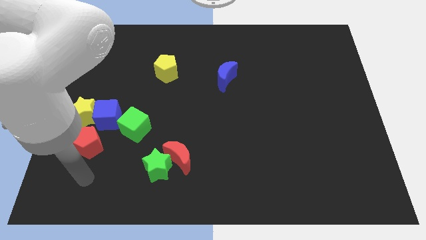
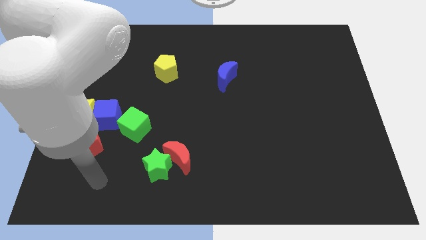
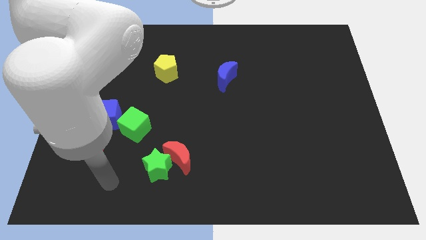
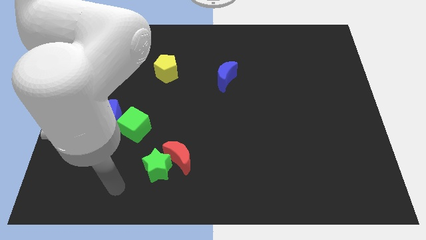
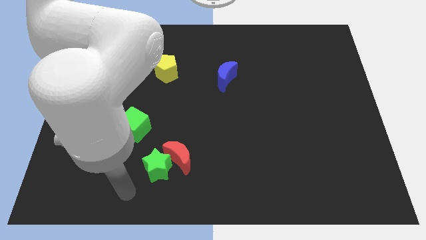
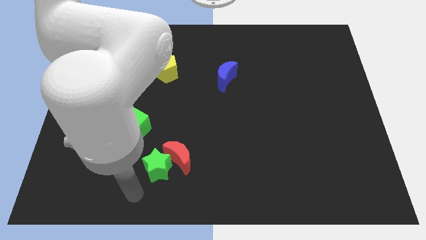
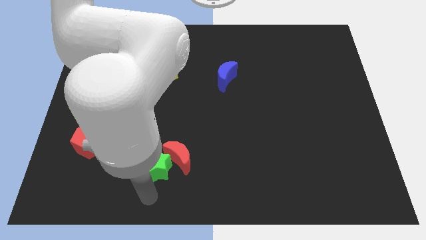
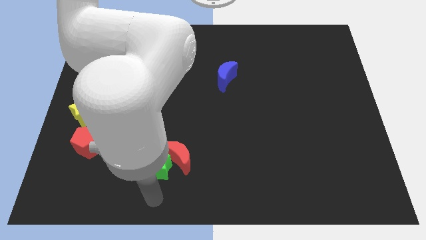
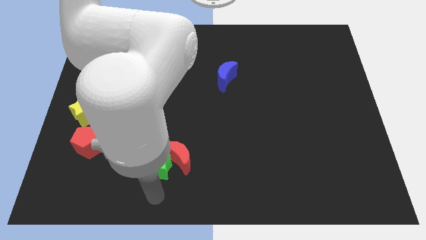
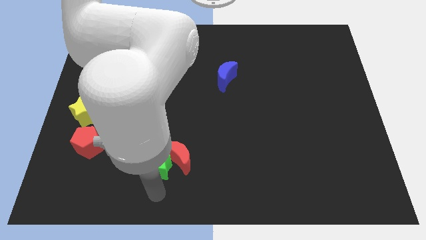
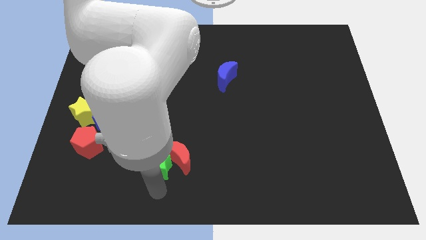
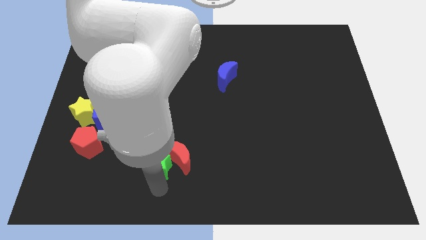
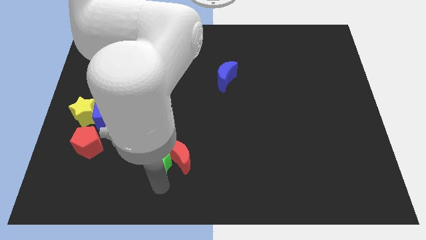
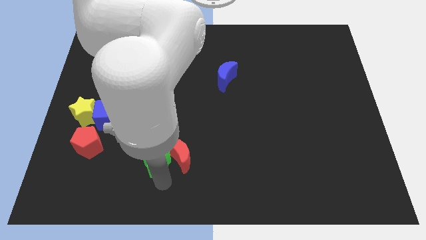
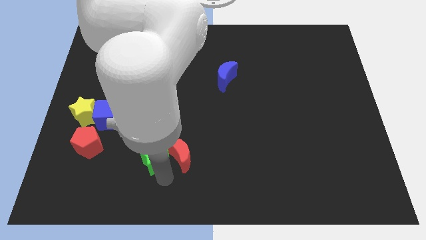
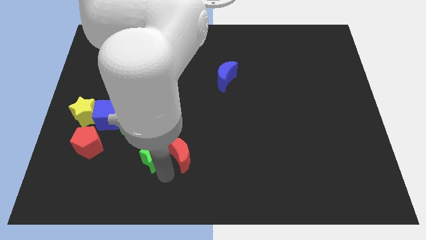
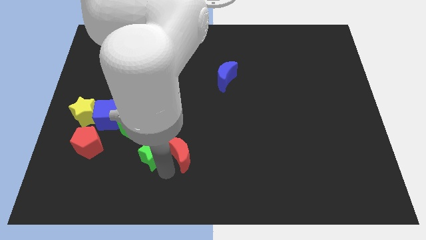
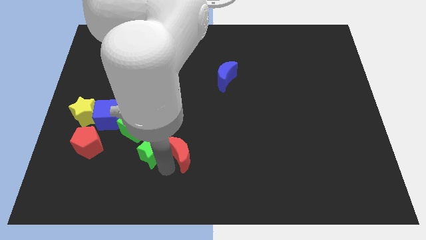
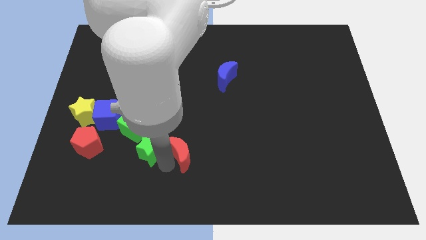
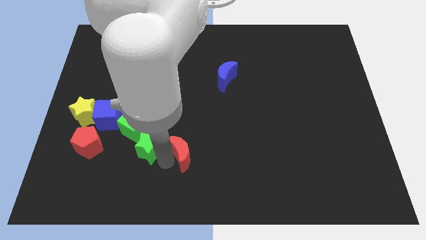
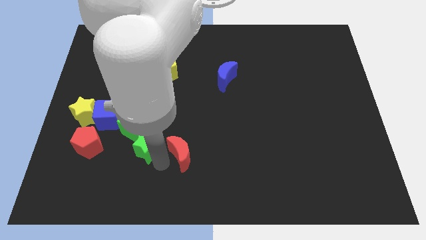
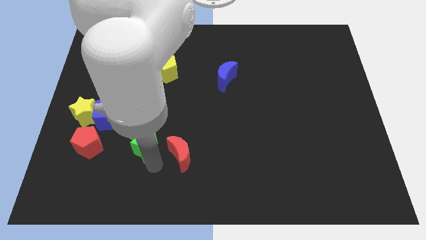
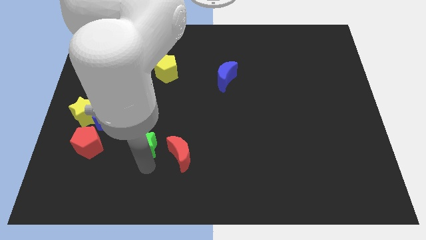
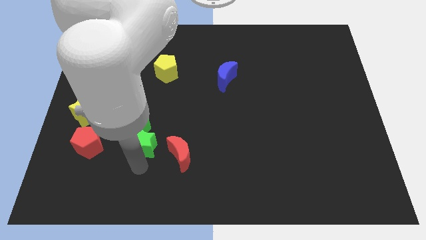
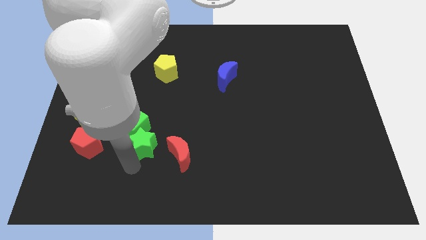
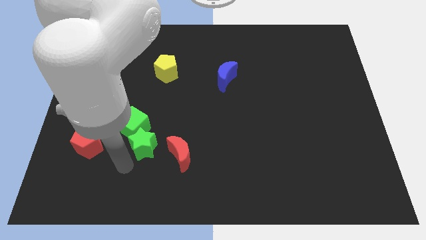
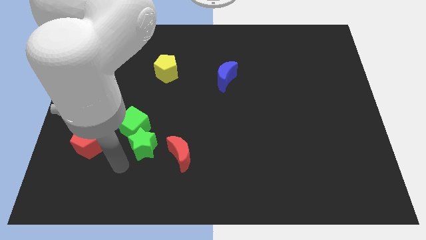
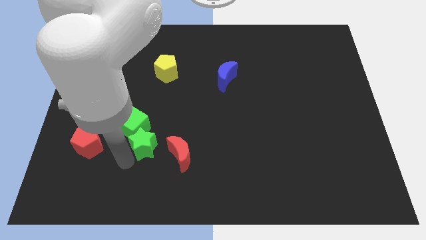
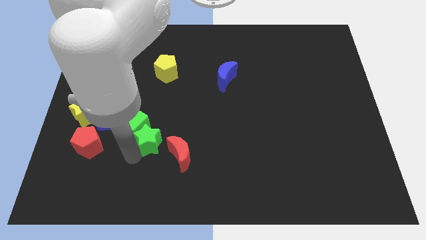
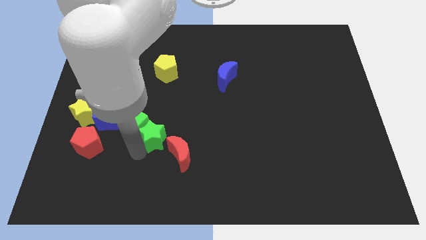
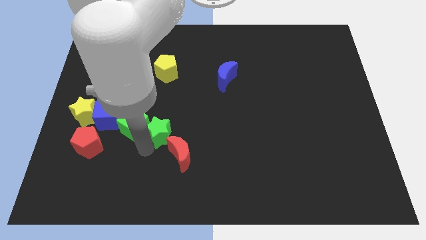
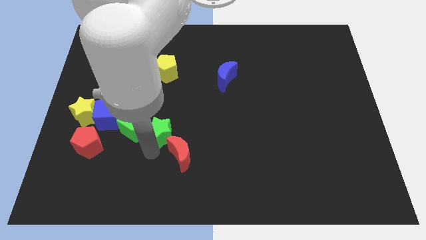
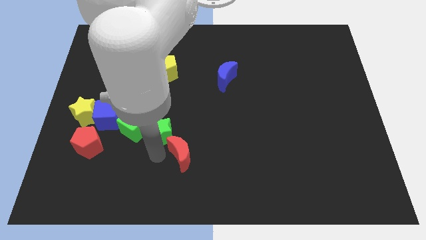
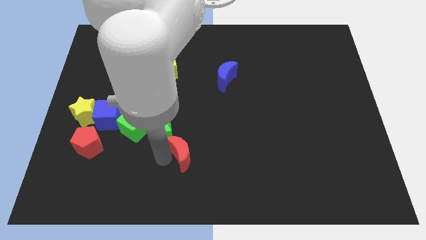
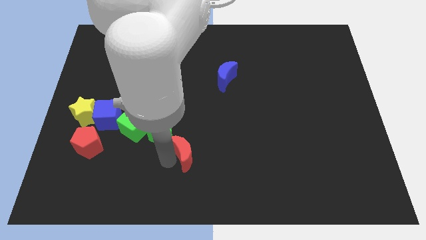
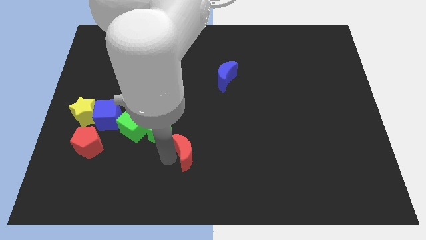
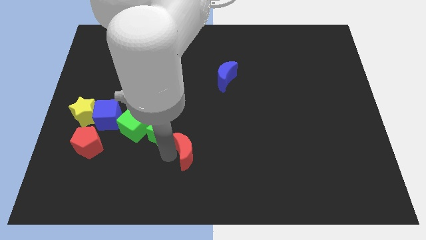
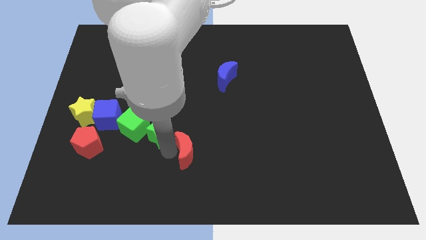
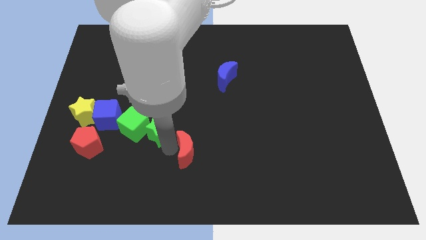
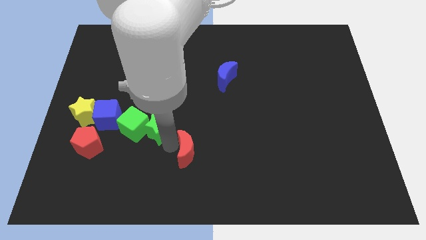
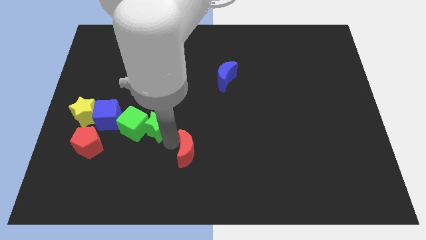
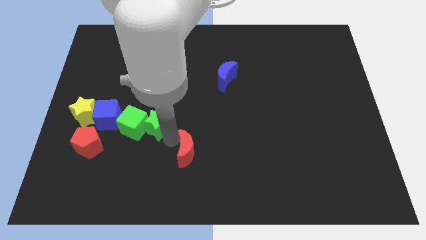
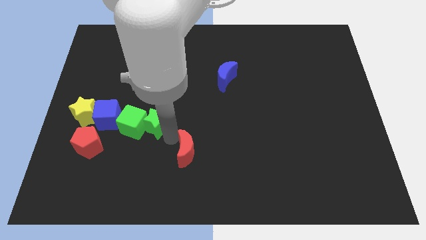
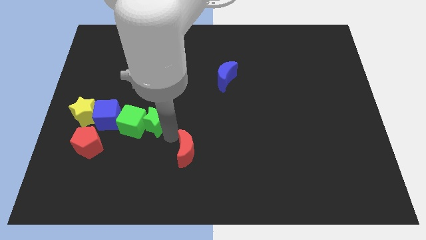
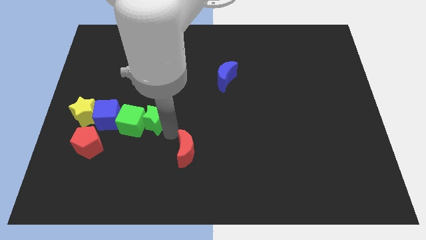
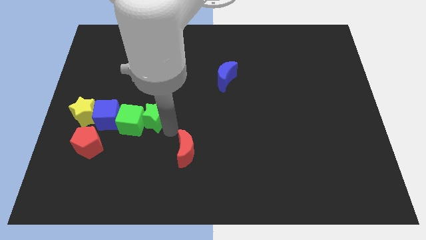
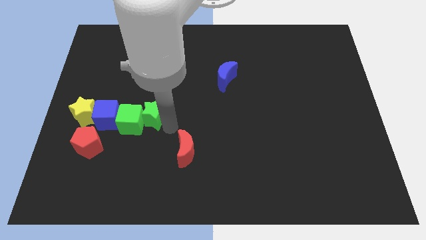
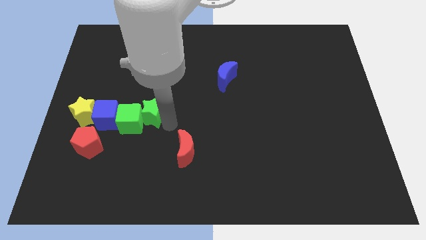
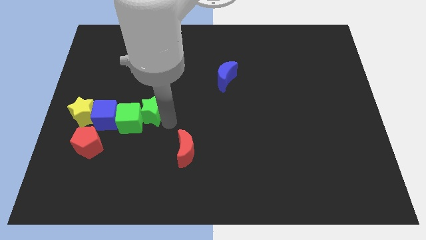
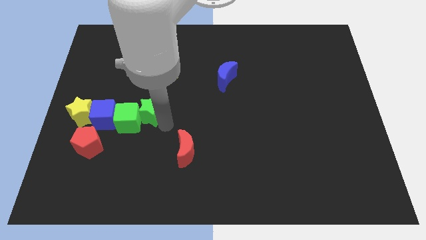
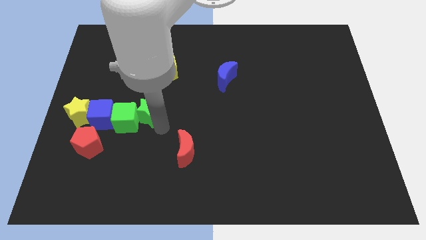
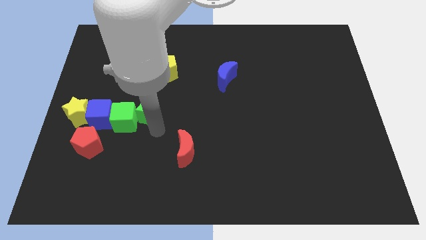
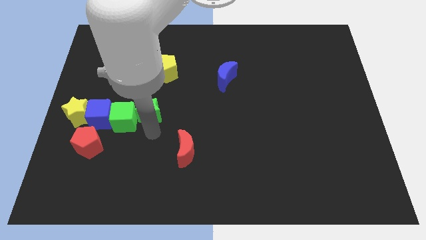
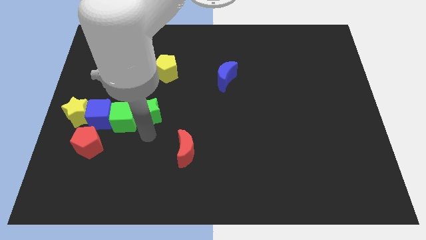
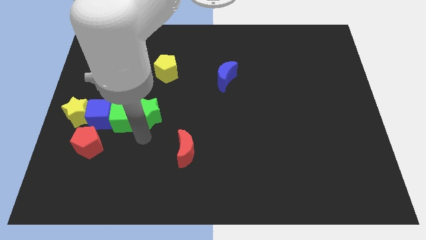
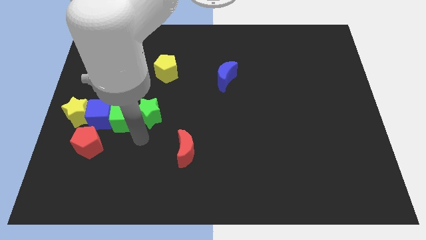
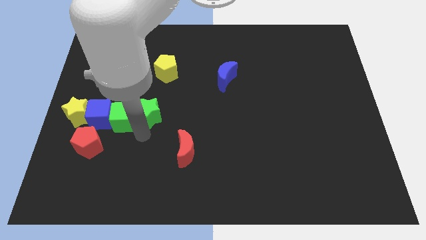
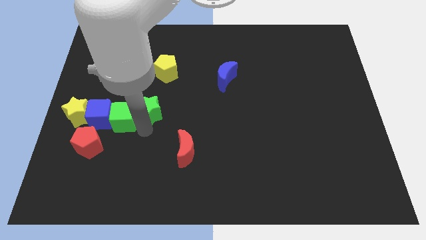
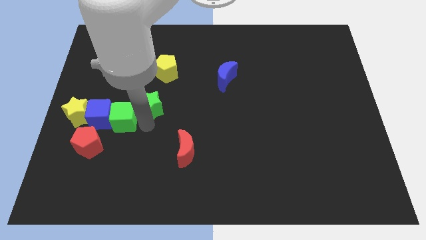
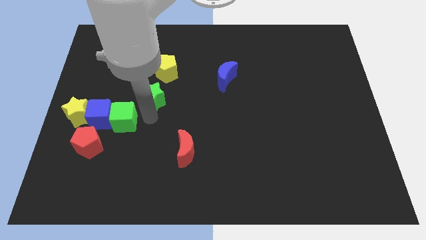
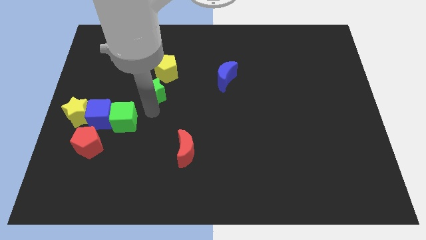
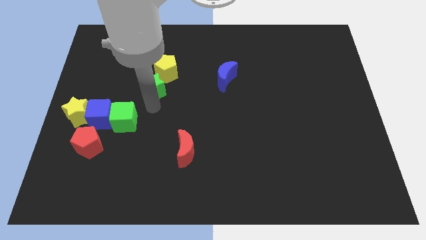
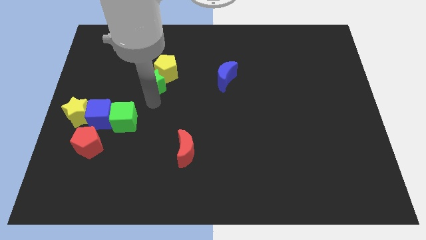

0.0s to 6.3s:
put the green star next to the yellow pentagon

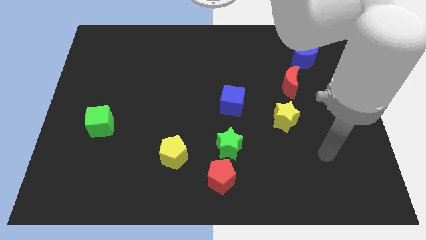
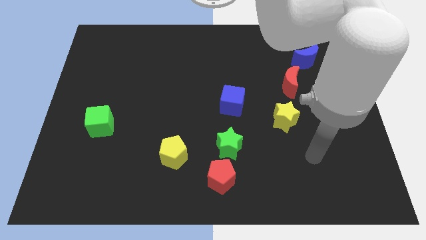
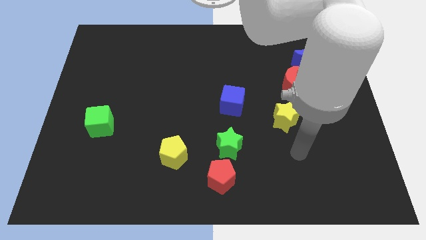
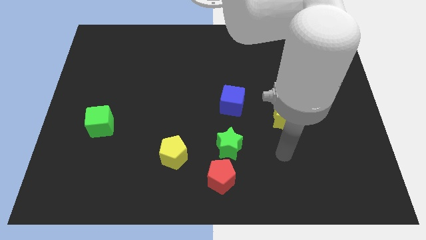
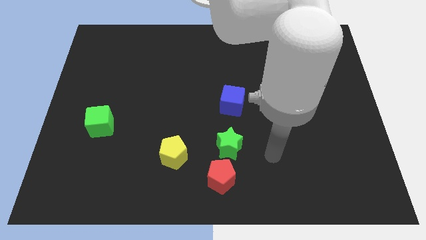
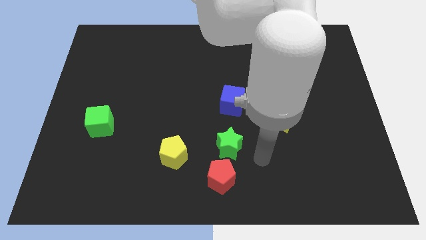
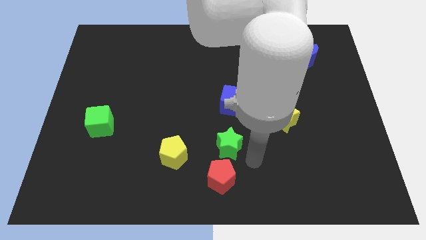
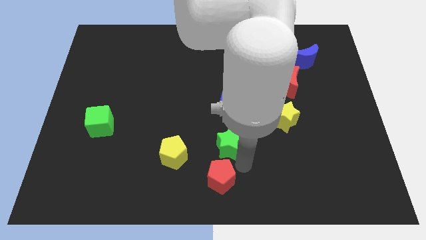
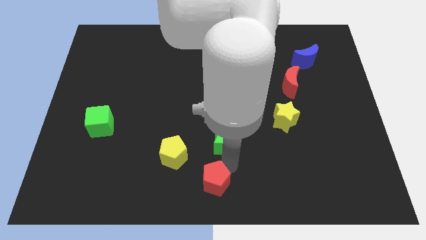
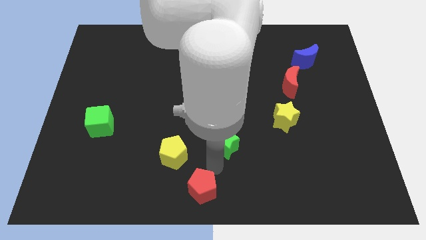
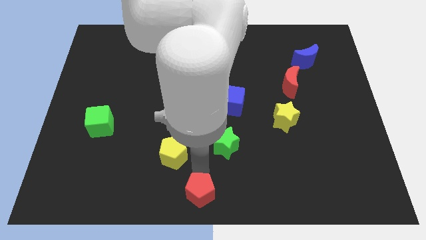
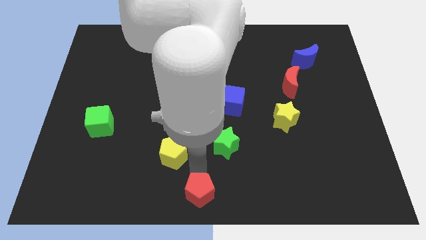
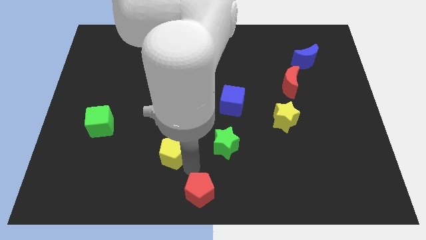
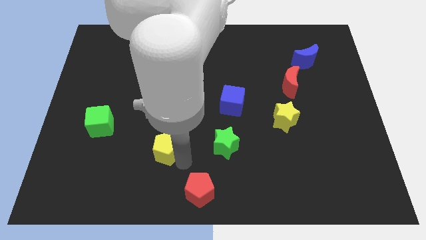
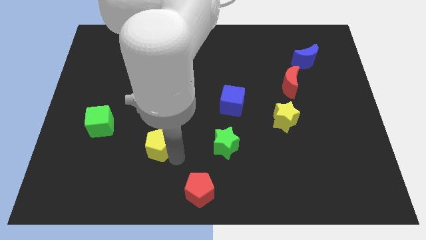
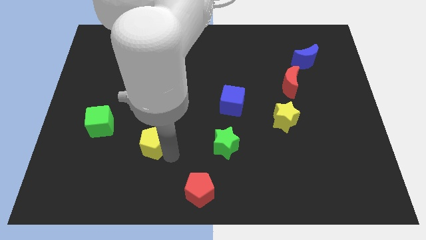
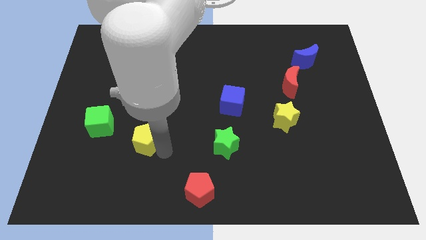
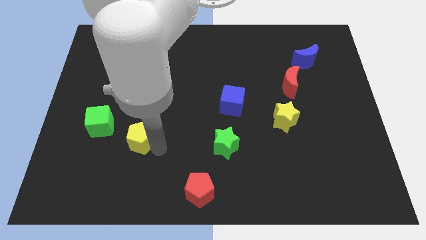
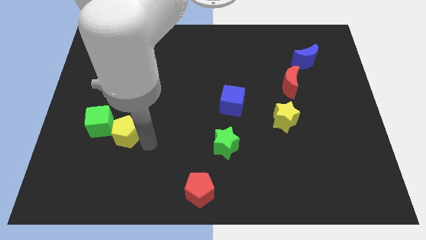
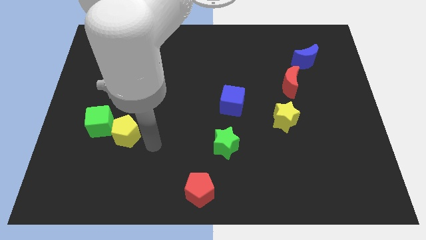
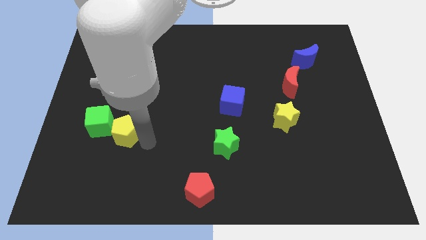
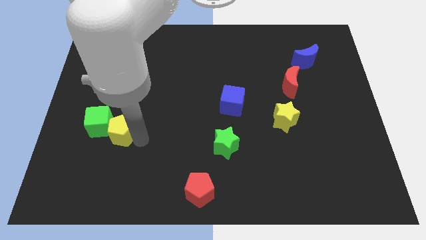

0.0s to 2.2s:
put the yellow pentagon next to the green cube
